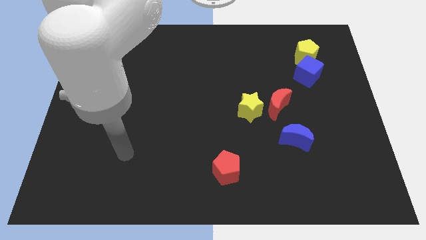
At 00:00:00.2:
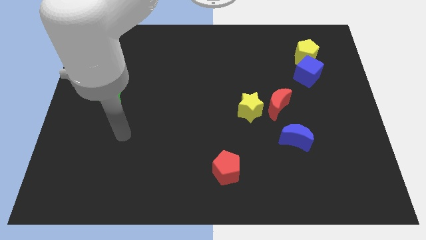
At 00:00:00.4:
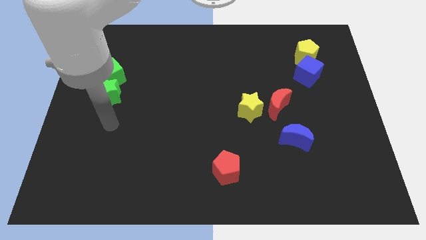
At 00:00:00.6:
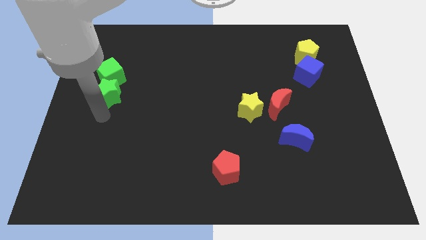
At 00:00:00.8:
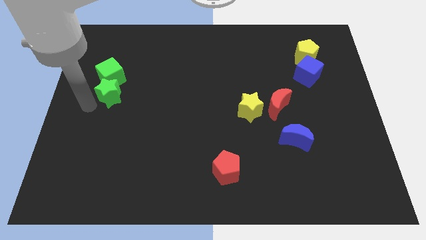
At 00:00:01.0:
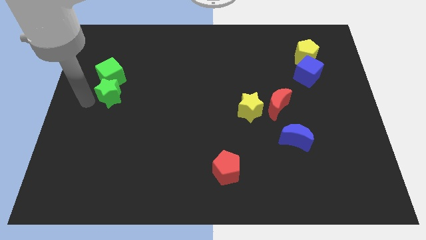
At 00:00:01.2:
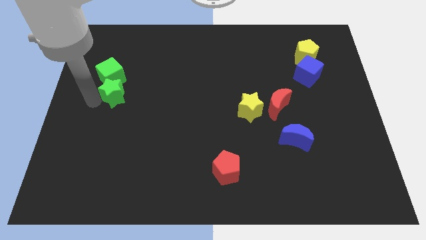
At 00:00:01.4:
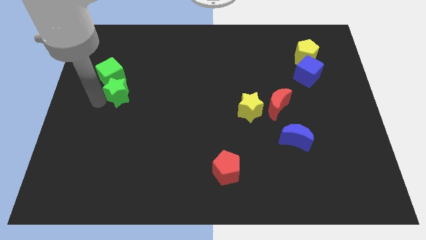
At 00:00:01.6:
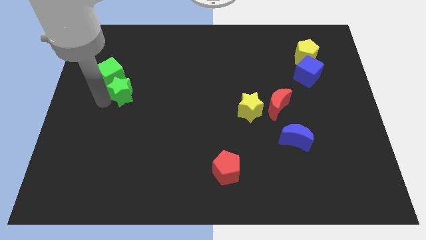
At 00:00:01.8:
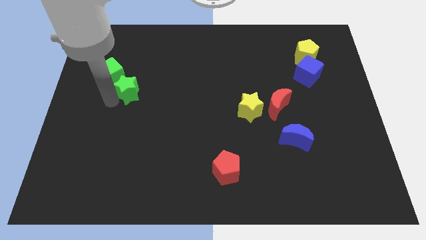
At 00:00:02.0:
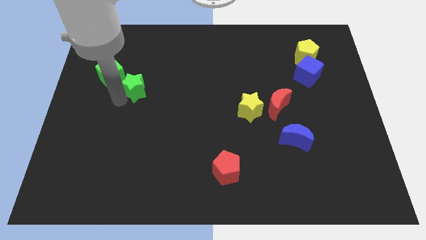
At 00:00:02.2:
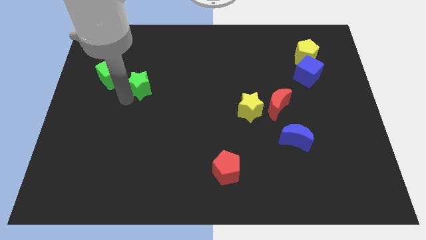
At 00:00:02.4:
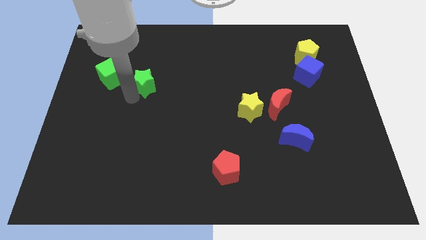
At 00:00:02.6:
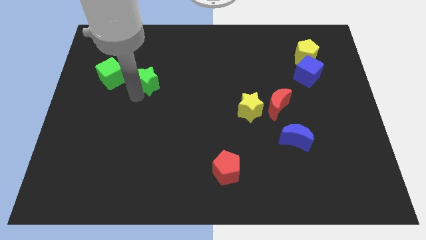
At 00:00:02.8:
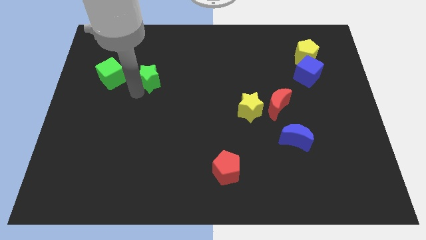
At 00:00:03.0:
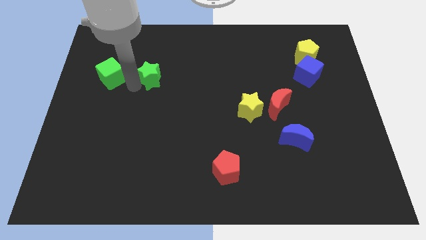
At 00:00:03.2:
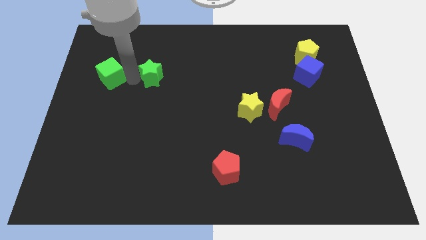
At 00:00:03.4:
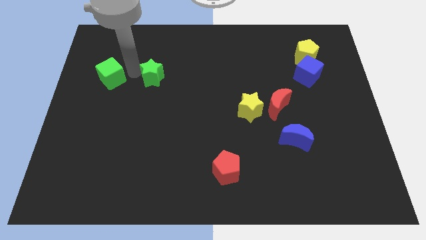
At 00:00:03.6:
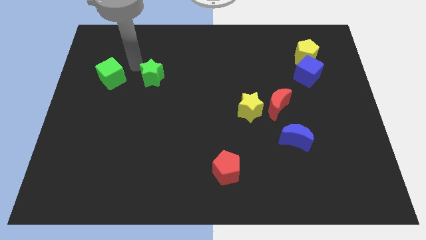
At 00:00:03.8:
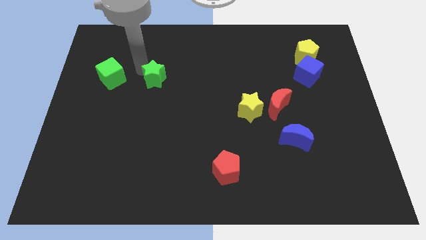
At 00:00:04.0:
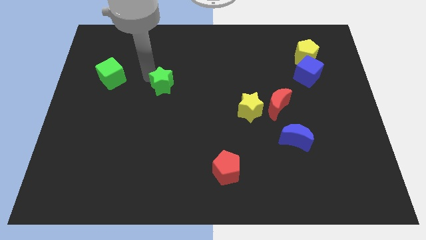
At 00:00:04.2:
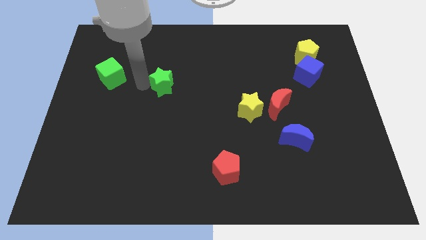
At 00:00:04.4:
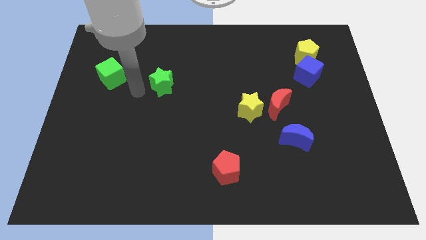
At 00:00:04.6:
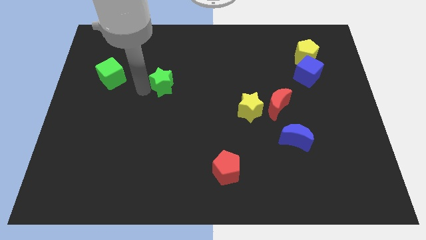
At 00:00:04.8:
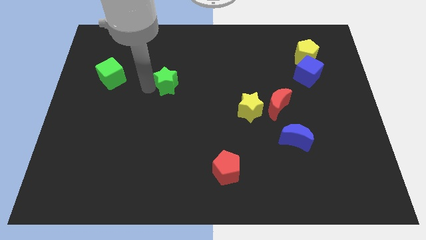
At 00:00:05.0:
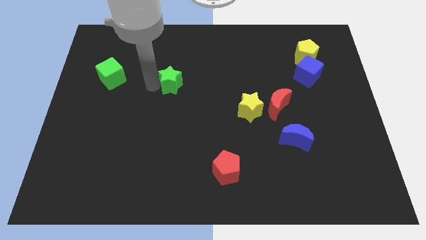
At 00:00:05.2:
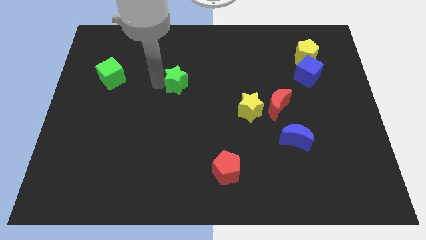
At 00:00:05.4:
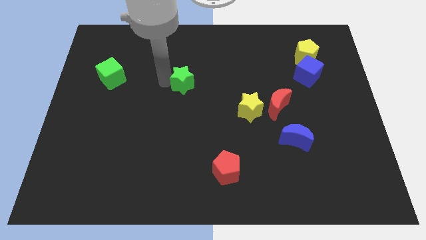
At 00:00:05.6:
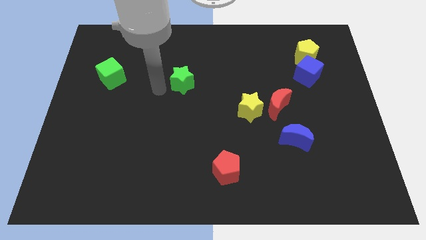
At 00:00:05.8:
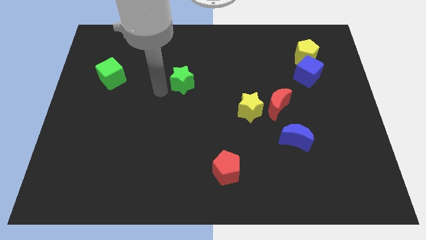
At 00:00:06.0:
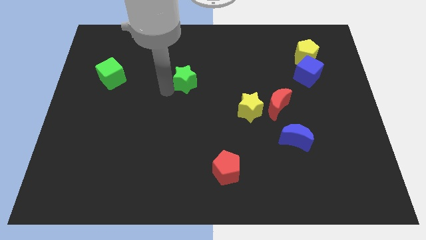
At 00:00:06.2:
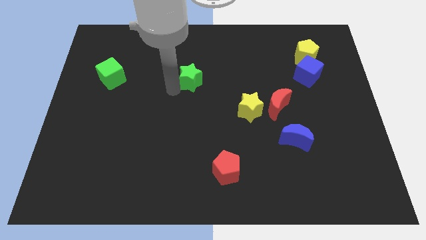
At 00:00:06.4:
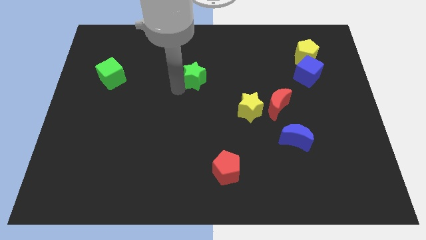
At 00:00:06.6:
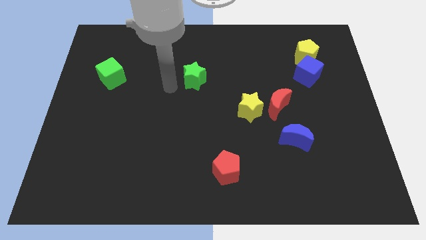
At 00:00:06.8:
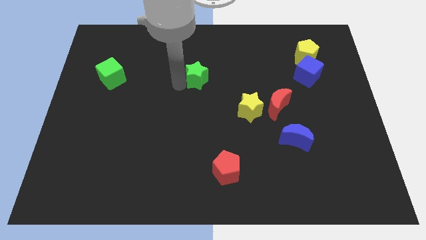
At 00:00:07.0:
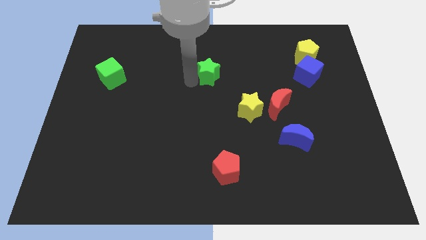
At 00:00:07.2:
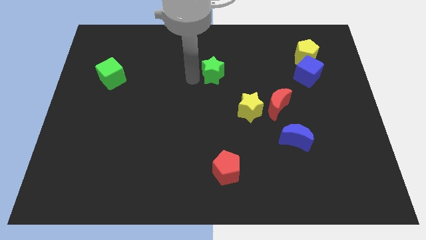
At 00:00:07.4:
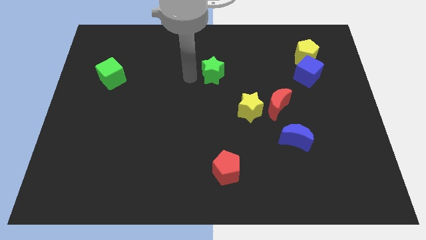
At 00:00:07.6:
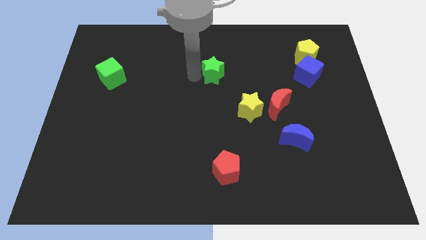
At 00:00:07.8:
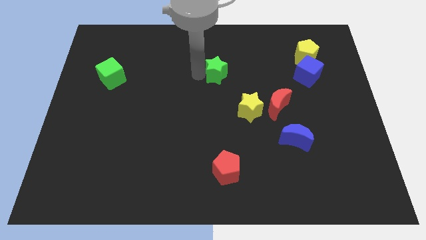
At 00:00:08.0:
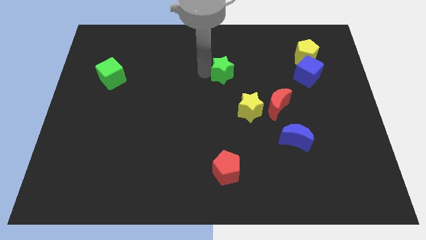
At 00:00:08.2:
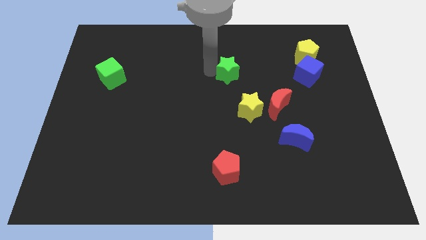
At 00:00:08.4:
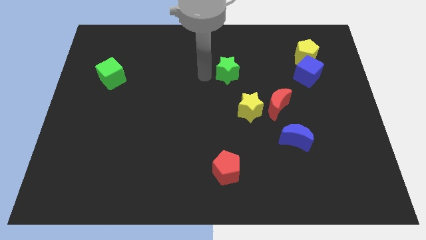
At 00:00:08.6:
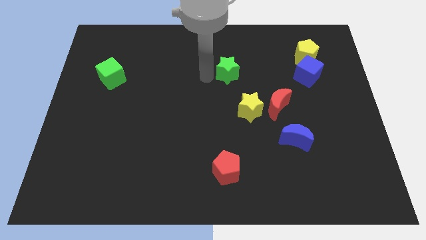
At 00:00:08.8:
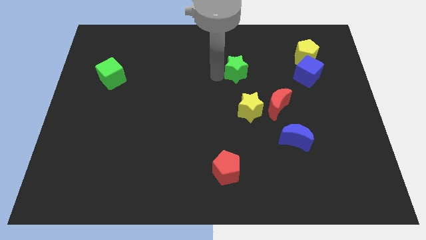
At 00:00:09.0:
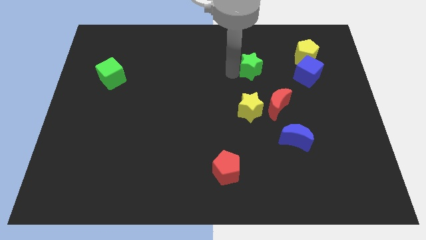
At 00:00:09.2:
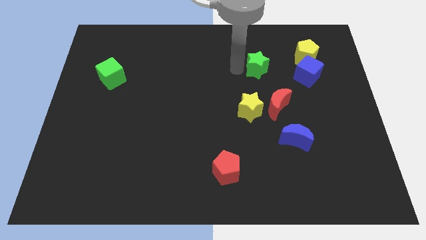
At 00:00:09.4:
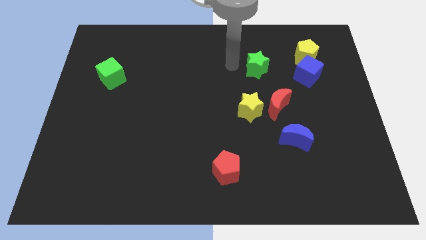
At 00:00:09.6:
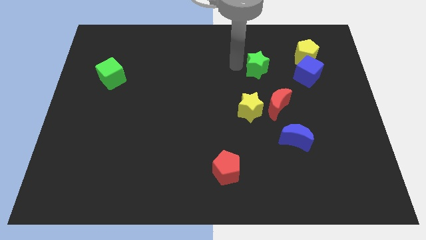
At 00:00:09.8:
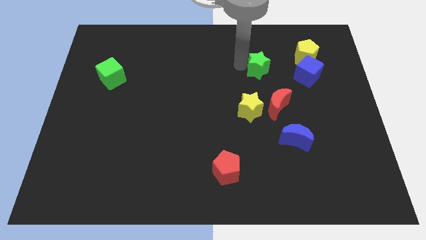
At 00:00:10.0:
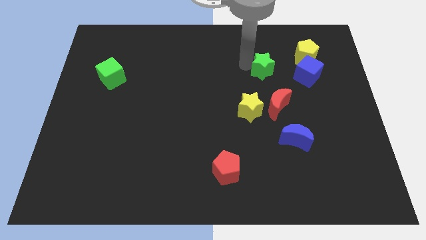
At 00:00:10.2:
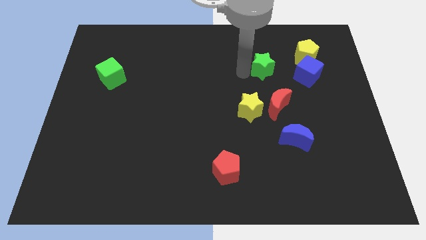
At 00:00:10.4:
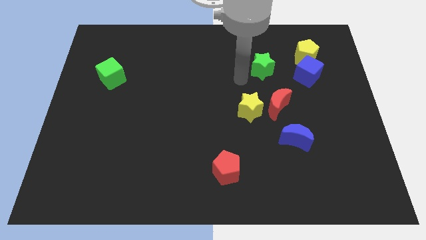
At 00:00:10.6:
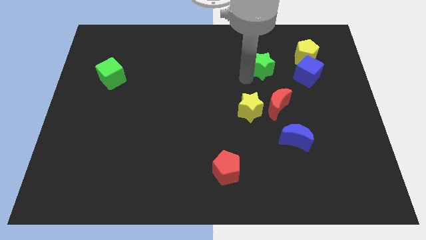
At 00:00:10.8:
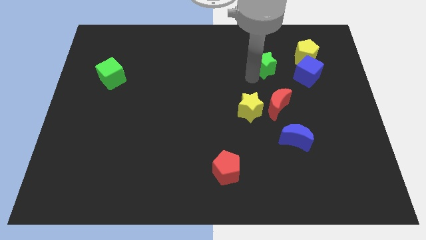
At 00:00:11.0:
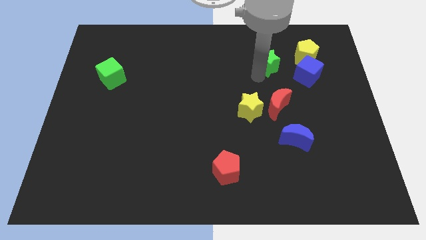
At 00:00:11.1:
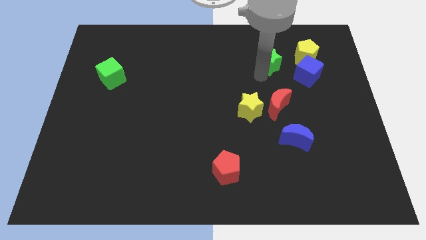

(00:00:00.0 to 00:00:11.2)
push the green star to the top left side of the blue cube

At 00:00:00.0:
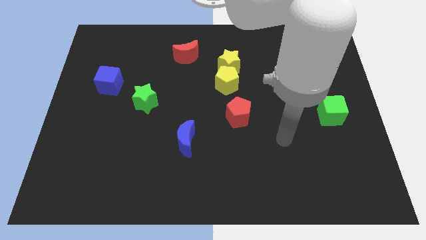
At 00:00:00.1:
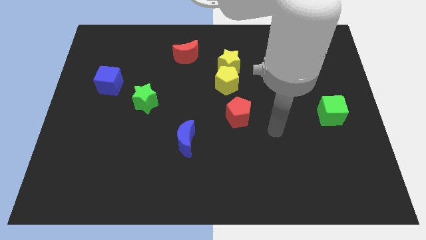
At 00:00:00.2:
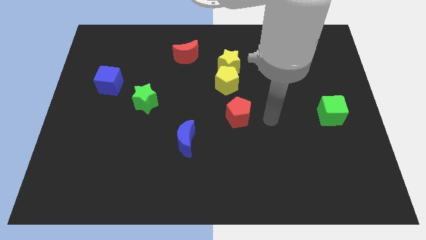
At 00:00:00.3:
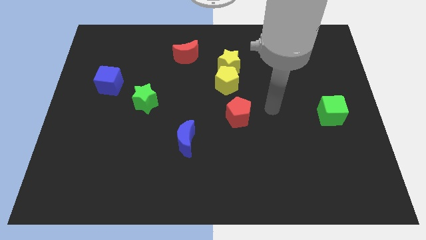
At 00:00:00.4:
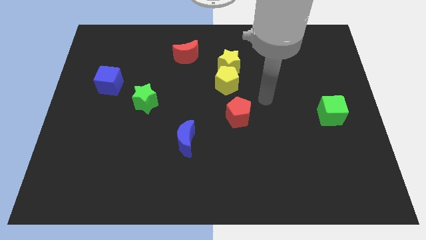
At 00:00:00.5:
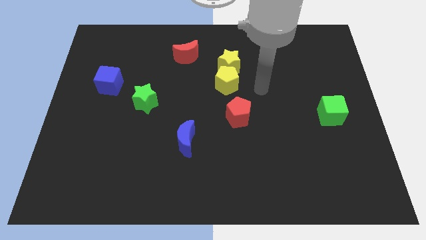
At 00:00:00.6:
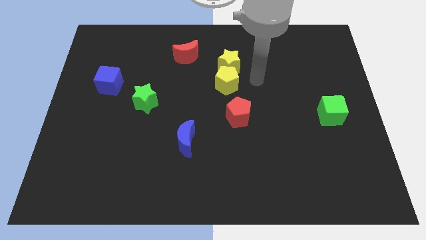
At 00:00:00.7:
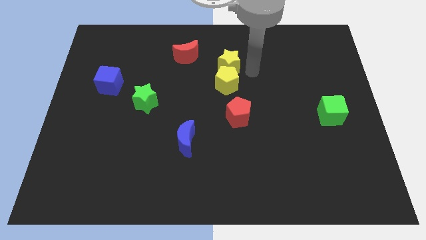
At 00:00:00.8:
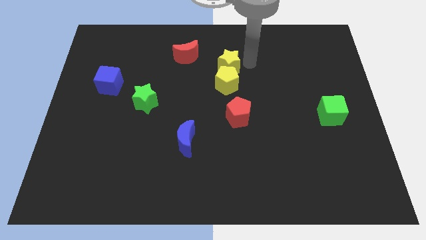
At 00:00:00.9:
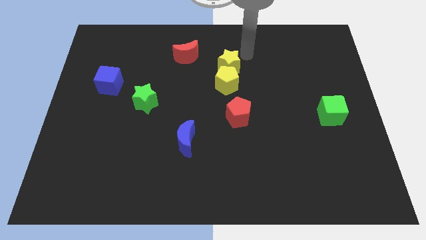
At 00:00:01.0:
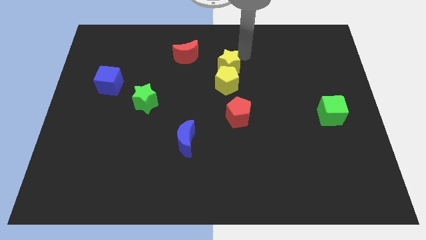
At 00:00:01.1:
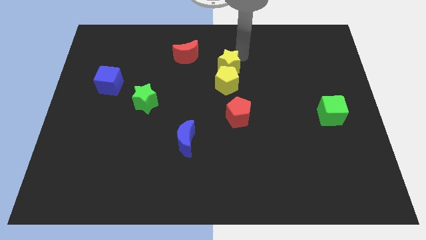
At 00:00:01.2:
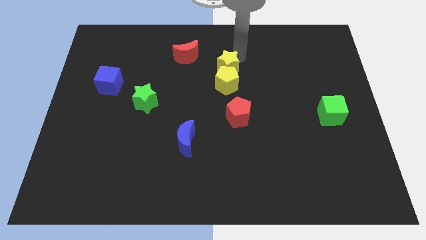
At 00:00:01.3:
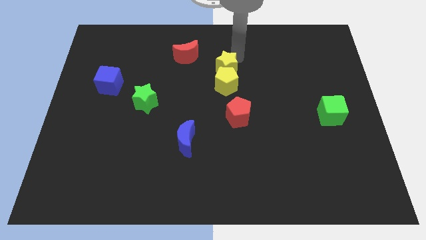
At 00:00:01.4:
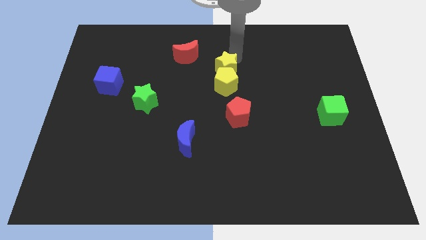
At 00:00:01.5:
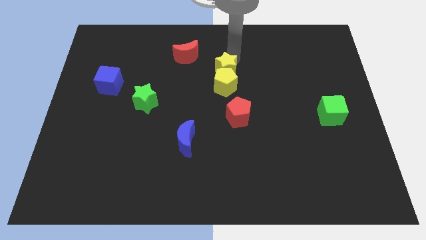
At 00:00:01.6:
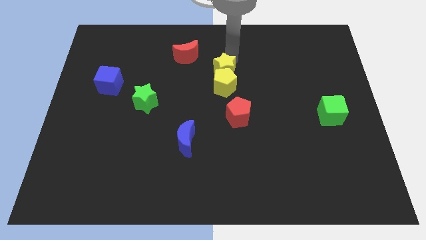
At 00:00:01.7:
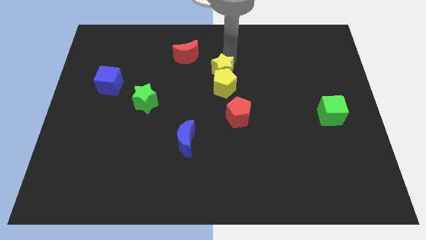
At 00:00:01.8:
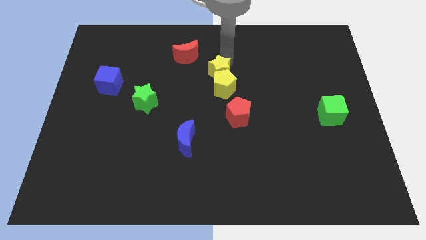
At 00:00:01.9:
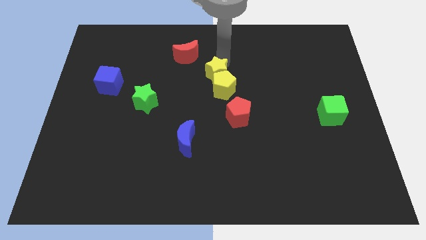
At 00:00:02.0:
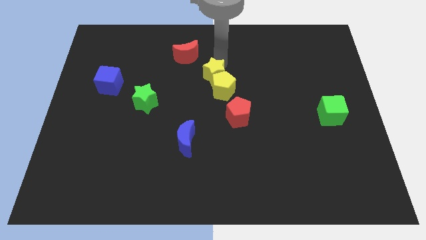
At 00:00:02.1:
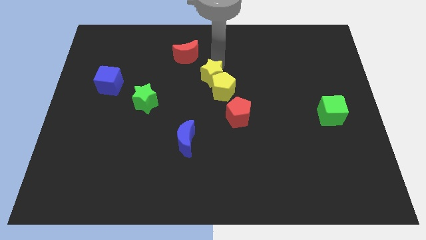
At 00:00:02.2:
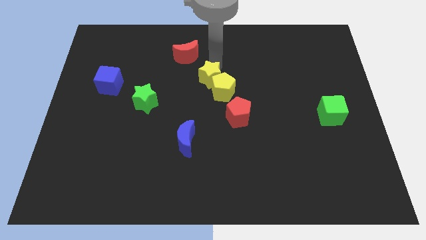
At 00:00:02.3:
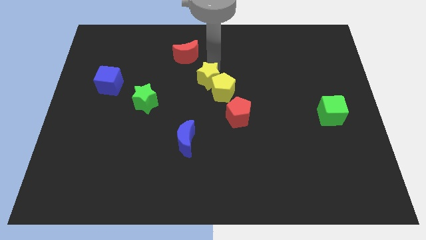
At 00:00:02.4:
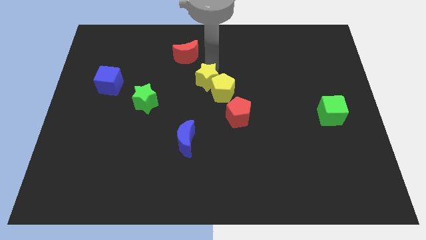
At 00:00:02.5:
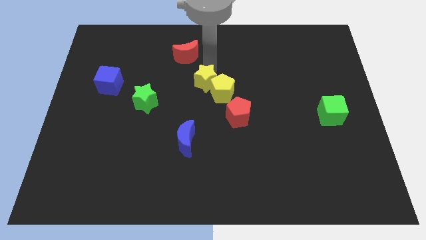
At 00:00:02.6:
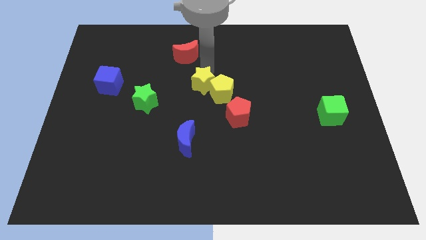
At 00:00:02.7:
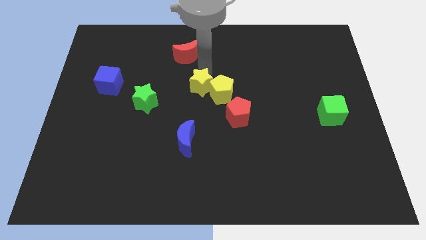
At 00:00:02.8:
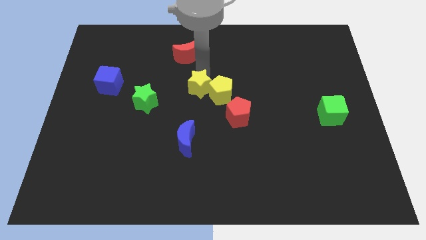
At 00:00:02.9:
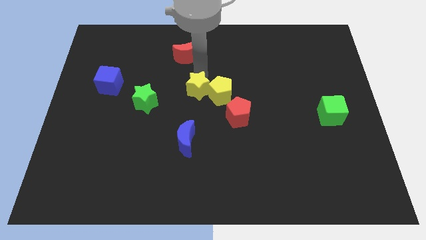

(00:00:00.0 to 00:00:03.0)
push the yellow star to the top of the blue moon
